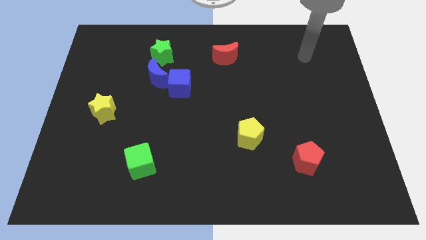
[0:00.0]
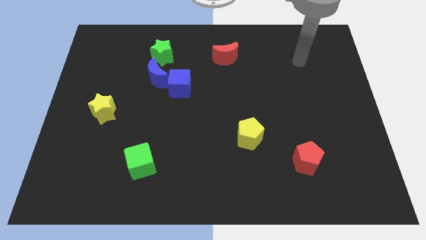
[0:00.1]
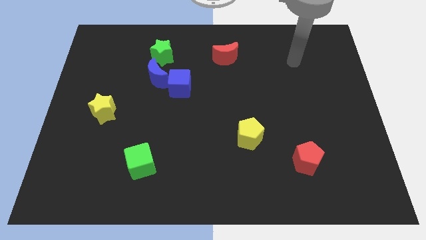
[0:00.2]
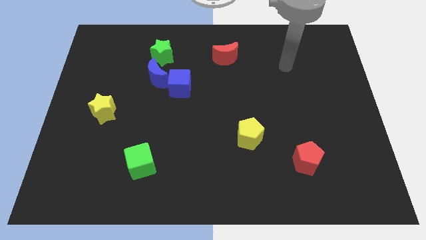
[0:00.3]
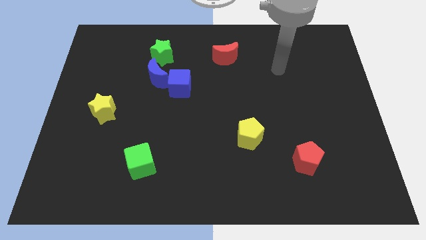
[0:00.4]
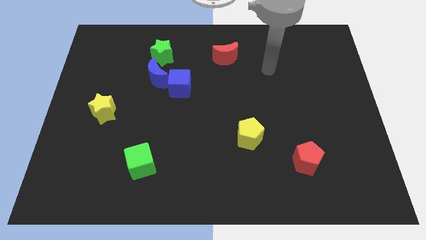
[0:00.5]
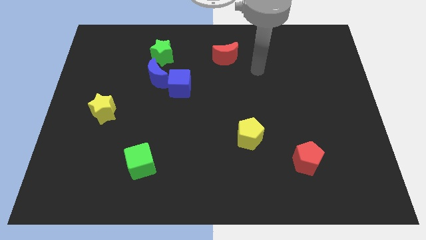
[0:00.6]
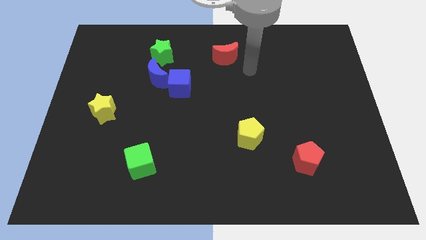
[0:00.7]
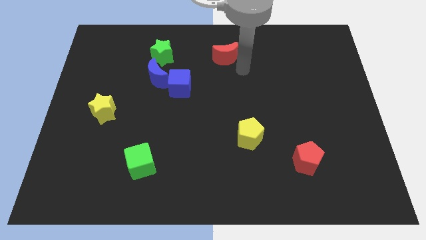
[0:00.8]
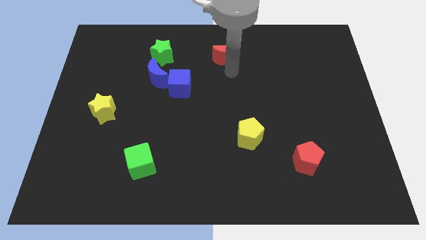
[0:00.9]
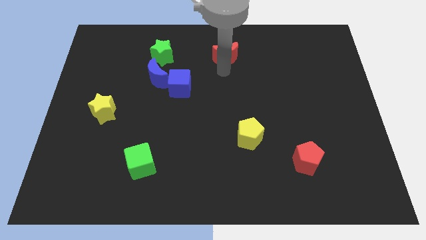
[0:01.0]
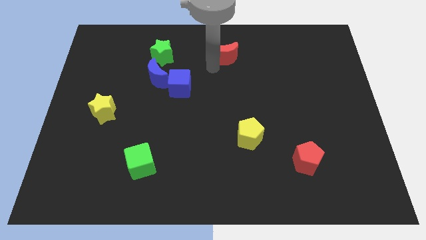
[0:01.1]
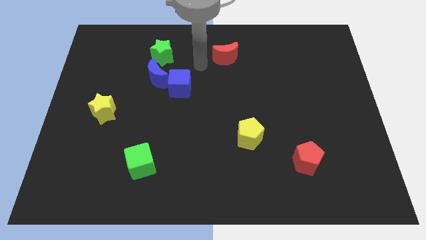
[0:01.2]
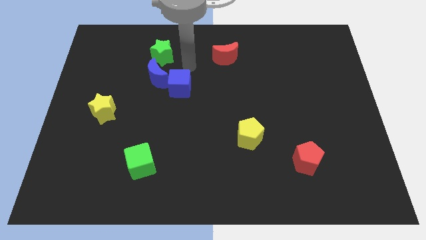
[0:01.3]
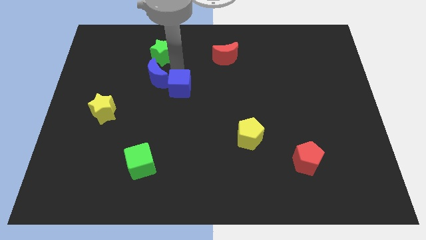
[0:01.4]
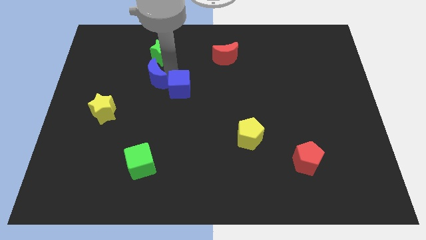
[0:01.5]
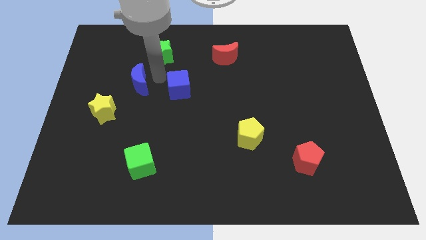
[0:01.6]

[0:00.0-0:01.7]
pull the blue cube apart from the blue moon

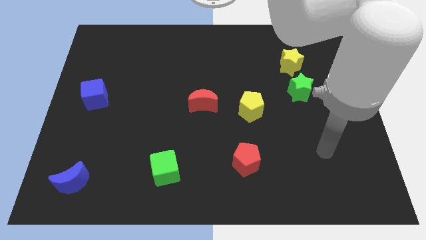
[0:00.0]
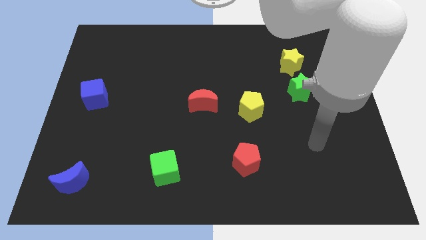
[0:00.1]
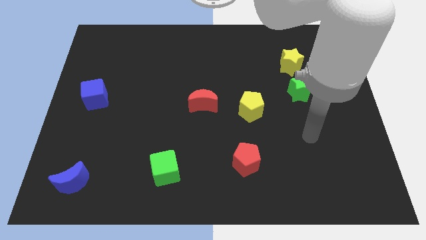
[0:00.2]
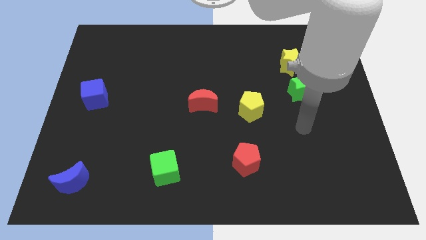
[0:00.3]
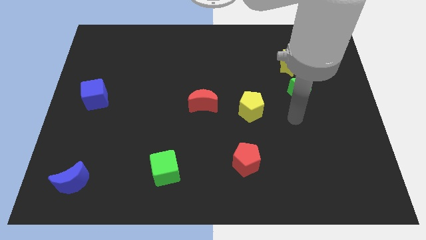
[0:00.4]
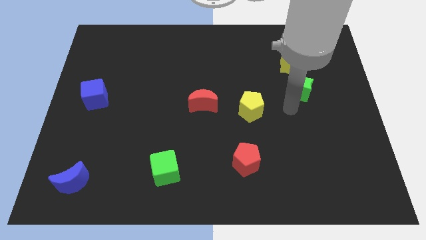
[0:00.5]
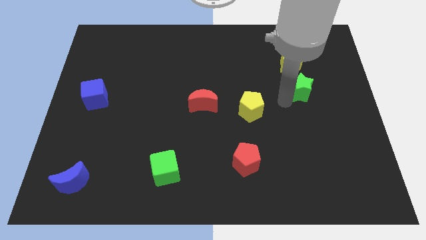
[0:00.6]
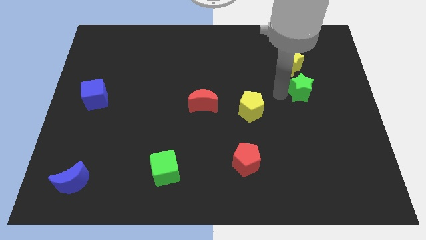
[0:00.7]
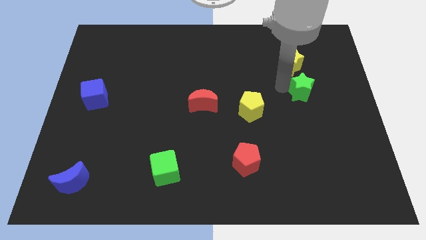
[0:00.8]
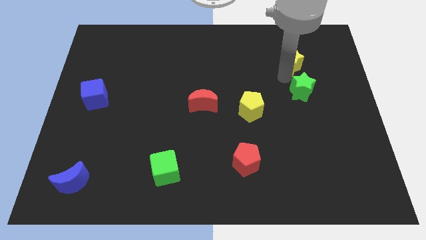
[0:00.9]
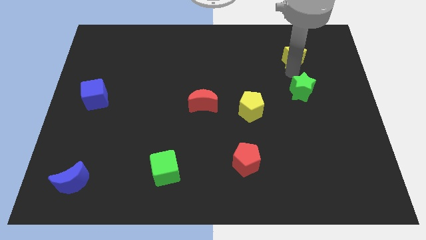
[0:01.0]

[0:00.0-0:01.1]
pull the green star apart from the yellow star

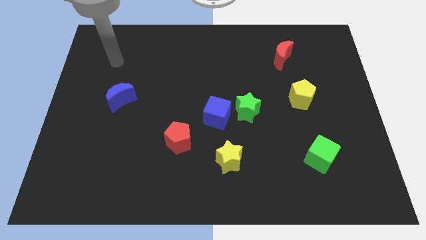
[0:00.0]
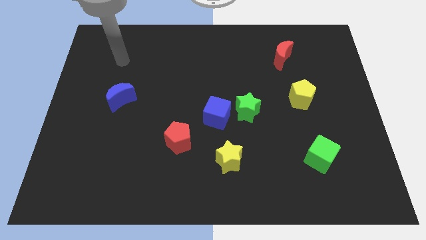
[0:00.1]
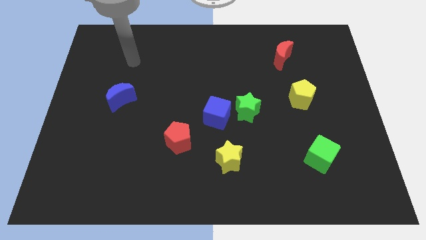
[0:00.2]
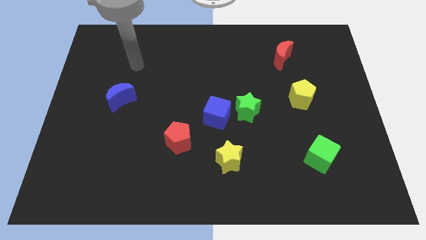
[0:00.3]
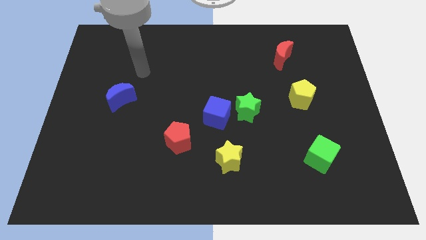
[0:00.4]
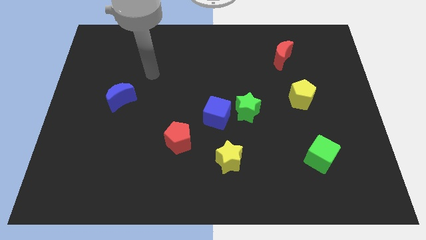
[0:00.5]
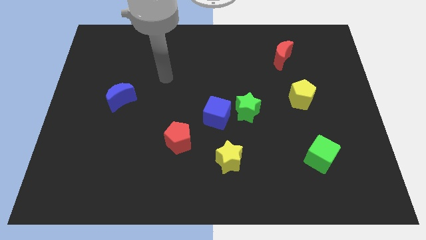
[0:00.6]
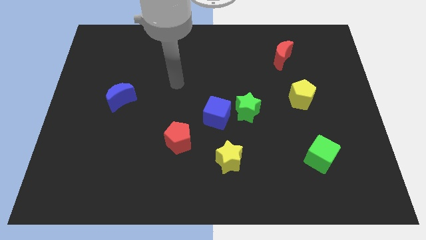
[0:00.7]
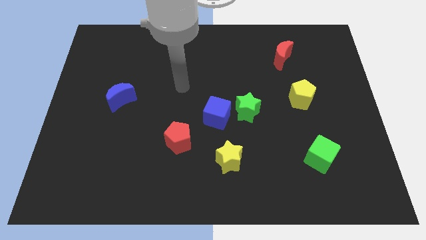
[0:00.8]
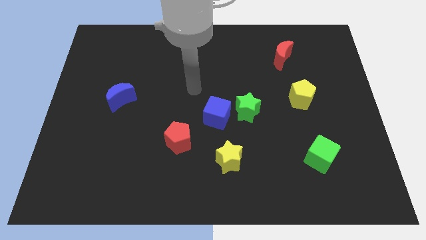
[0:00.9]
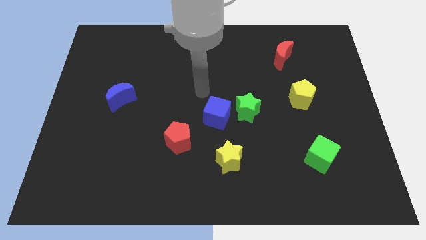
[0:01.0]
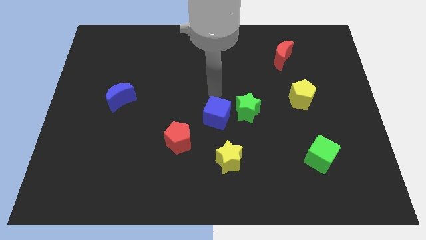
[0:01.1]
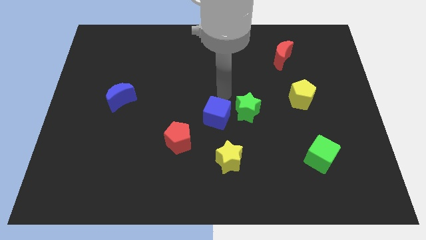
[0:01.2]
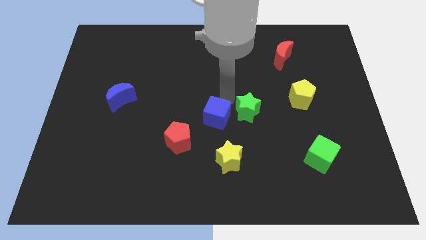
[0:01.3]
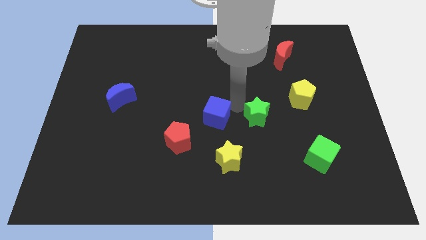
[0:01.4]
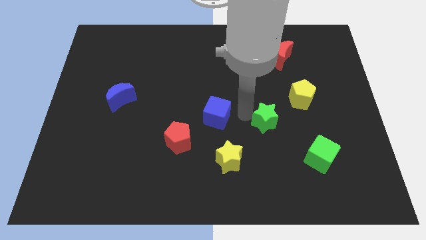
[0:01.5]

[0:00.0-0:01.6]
move the blue cube away from the green star

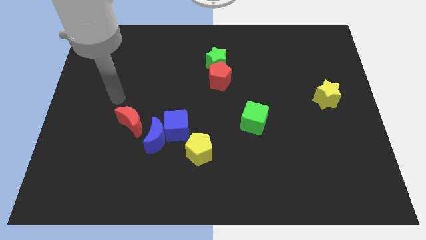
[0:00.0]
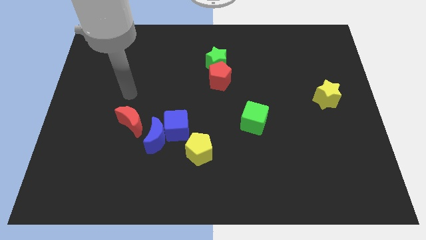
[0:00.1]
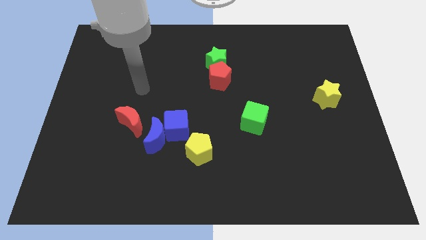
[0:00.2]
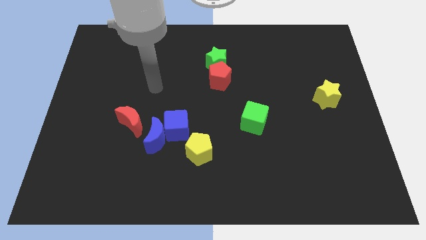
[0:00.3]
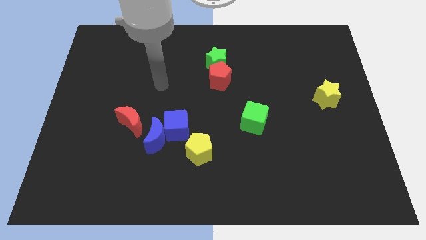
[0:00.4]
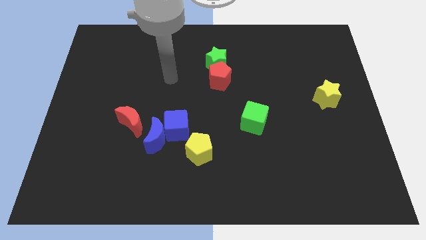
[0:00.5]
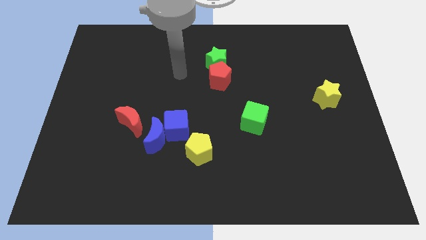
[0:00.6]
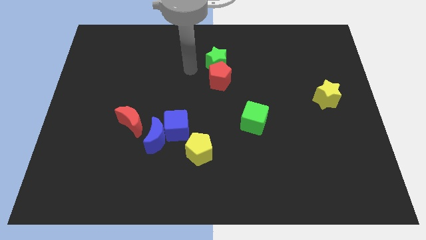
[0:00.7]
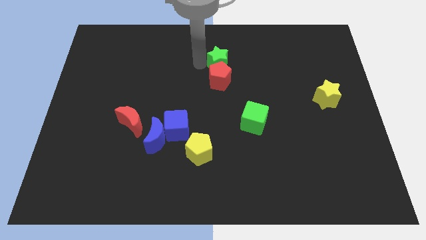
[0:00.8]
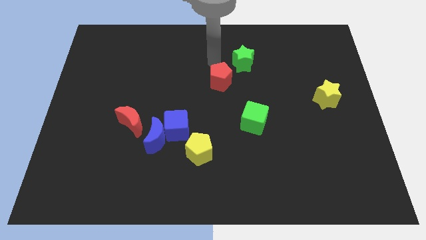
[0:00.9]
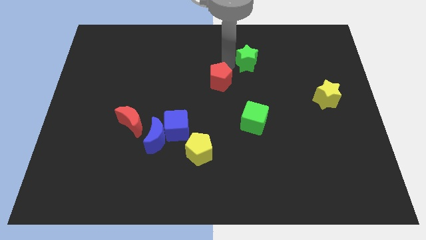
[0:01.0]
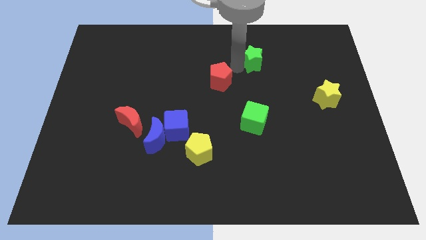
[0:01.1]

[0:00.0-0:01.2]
pull the red pentagon apart from the green star

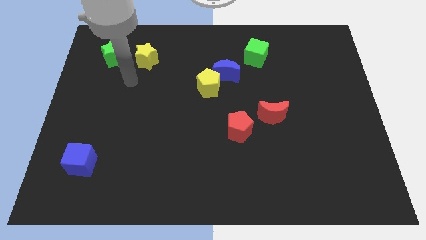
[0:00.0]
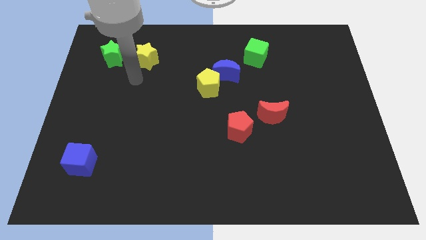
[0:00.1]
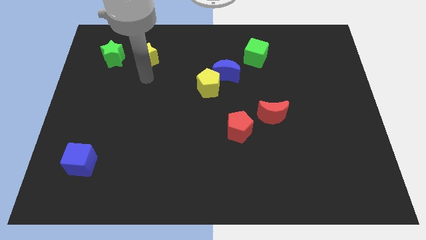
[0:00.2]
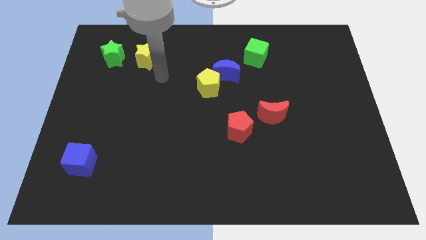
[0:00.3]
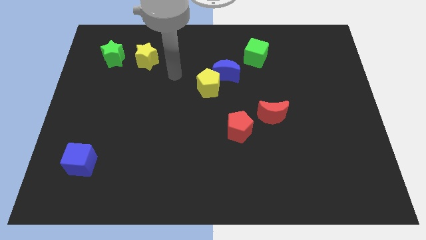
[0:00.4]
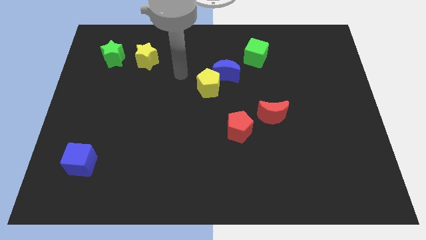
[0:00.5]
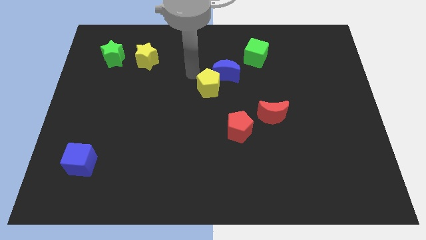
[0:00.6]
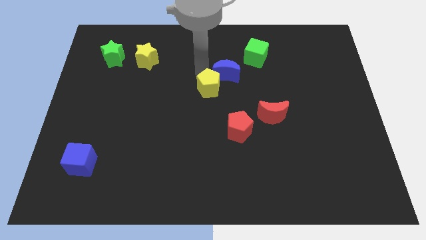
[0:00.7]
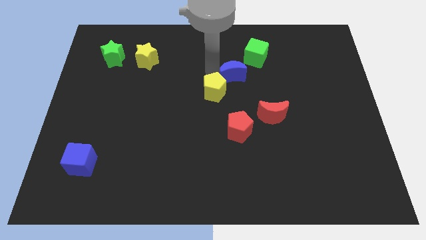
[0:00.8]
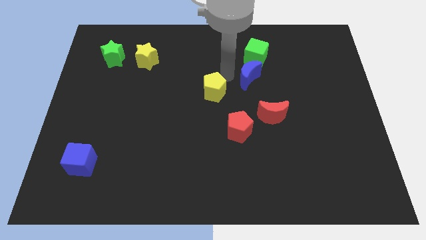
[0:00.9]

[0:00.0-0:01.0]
pull the yellow pentagon apart from the blue moon

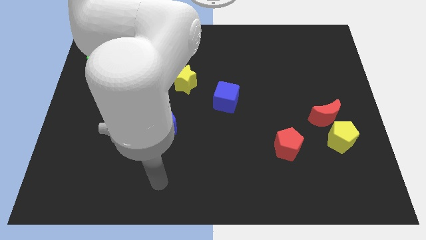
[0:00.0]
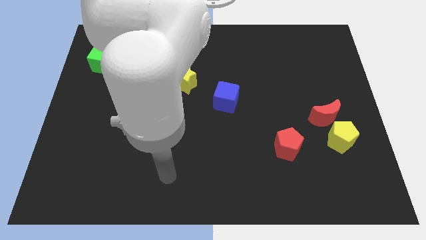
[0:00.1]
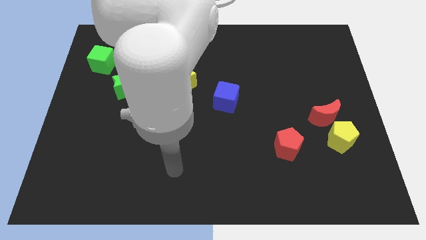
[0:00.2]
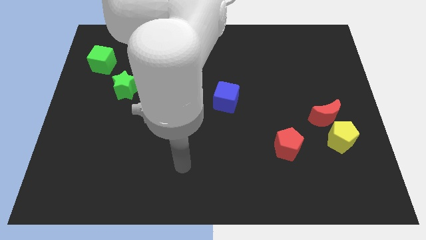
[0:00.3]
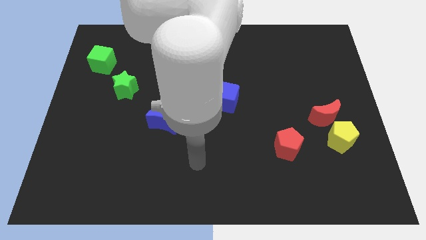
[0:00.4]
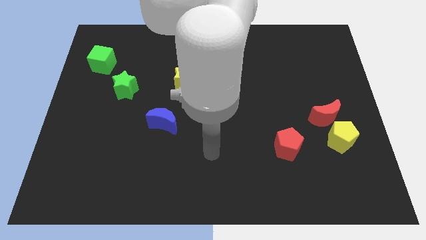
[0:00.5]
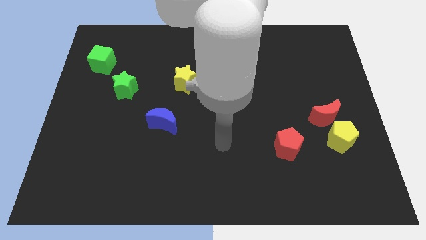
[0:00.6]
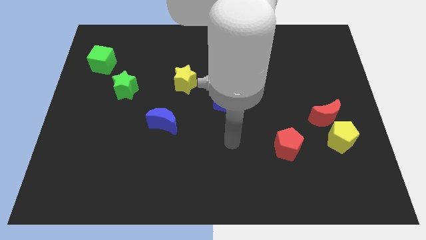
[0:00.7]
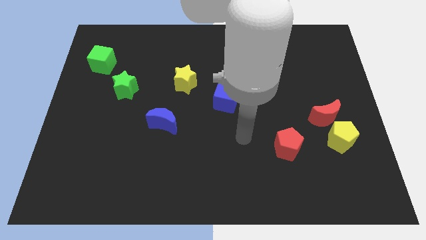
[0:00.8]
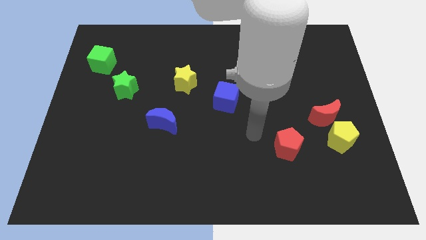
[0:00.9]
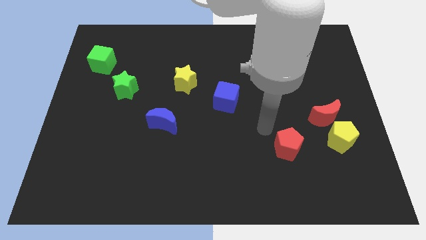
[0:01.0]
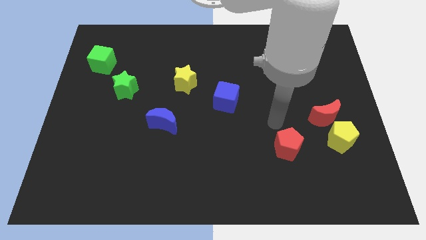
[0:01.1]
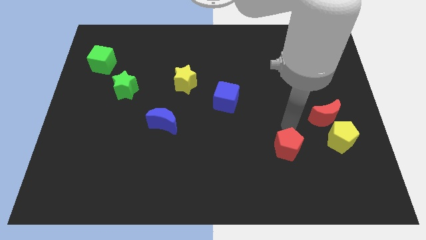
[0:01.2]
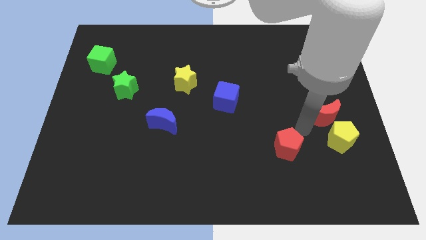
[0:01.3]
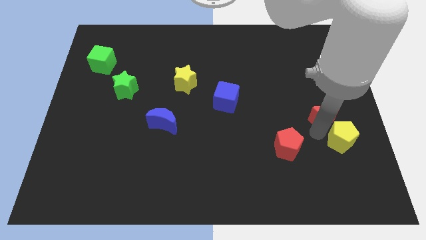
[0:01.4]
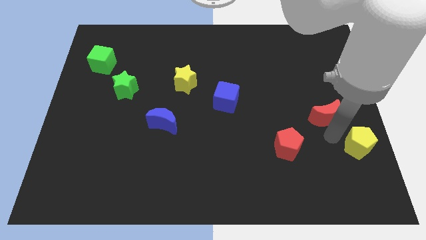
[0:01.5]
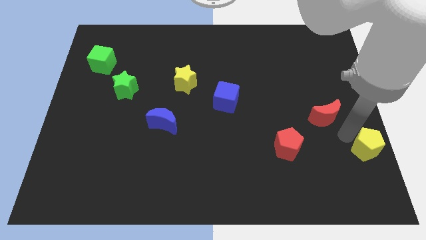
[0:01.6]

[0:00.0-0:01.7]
separate the red moon from the yellow pentagon

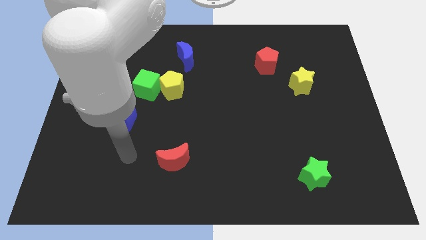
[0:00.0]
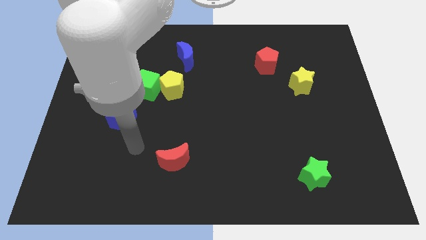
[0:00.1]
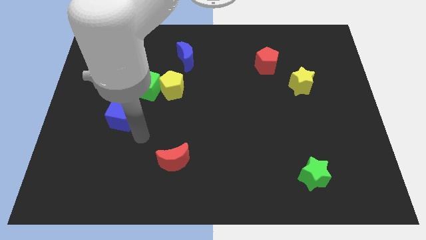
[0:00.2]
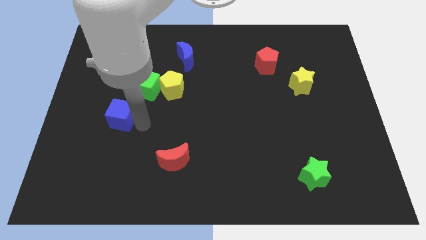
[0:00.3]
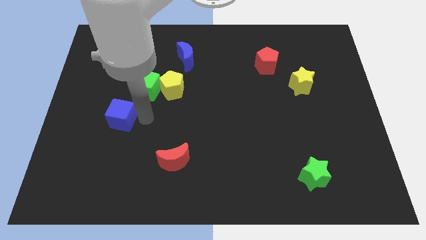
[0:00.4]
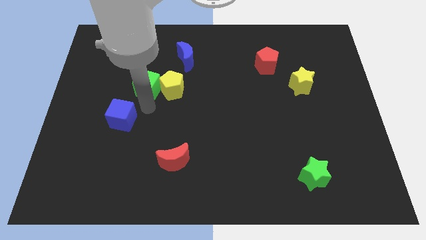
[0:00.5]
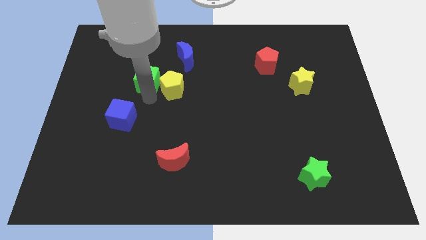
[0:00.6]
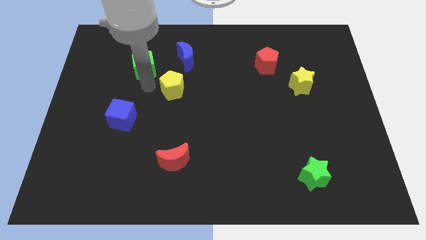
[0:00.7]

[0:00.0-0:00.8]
pull the yellow pentagon apart from the green cube

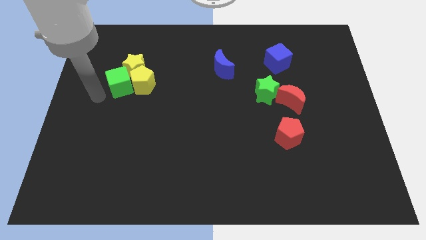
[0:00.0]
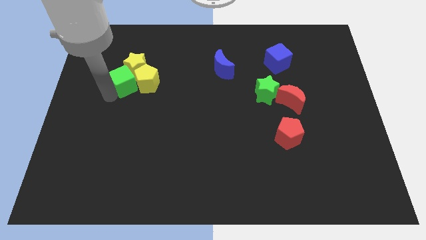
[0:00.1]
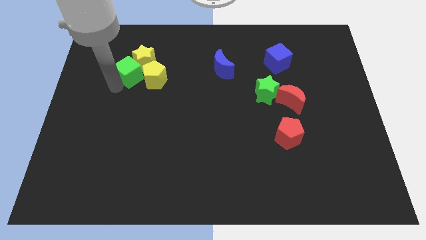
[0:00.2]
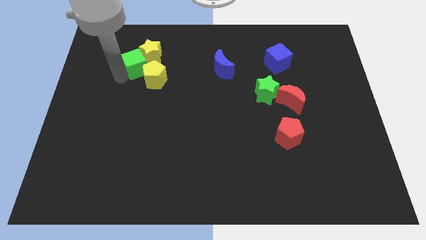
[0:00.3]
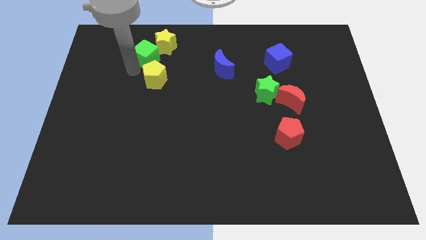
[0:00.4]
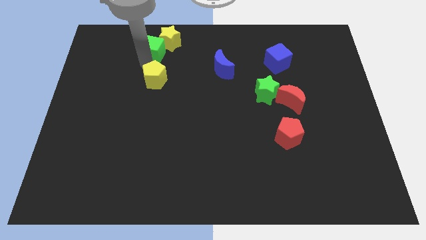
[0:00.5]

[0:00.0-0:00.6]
pull the yellow pentagon apart from the yellow star and green cube
